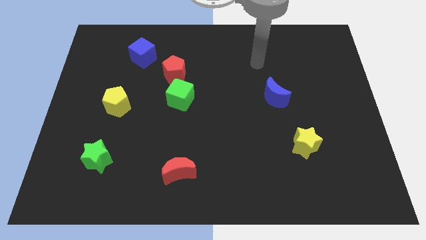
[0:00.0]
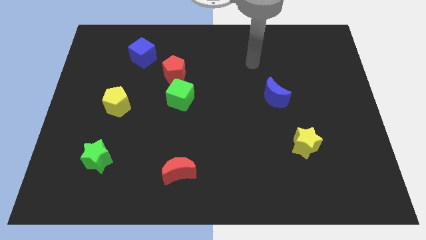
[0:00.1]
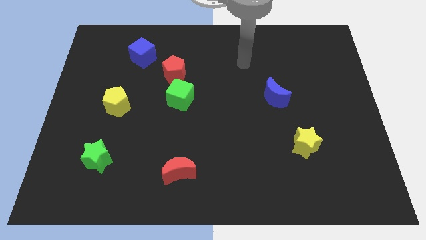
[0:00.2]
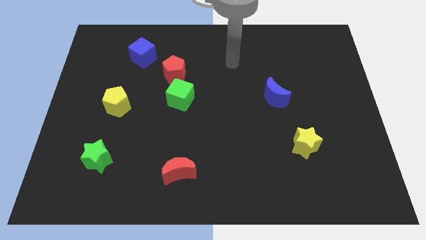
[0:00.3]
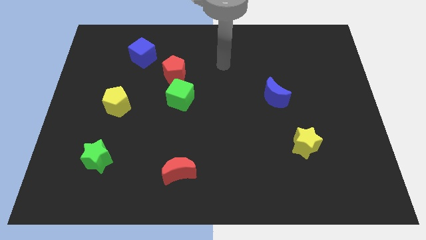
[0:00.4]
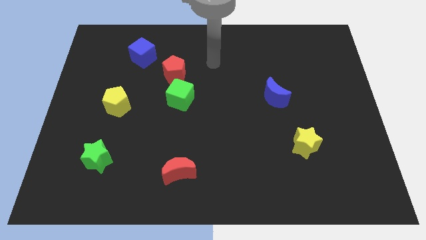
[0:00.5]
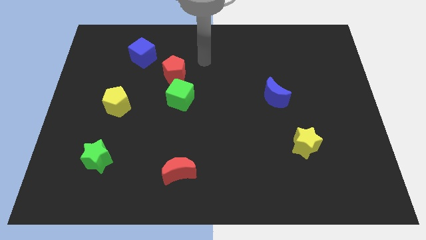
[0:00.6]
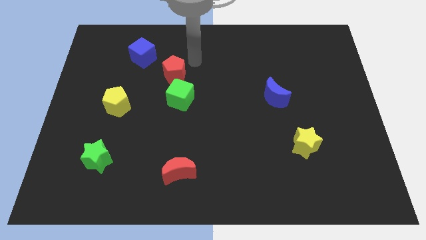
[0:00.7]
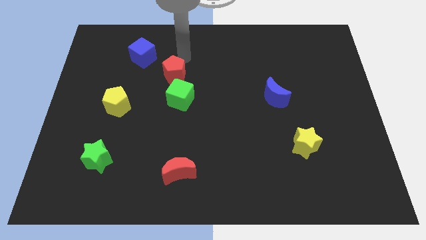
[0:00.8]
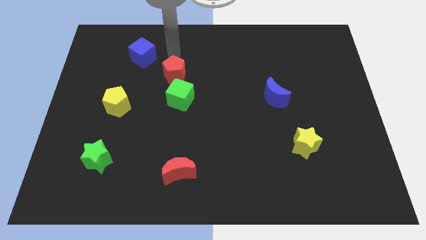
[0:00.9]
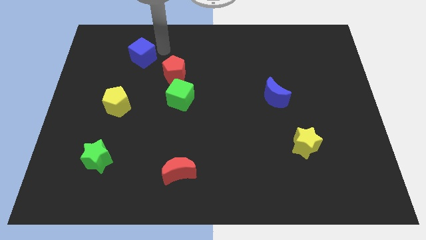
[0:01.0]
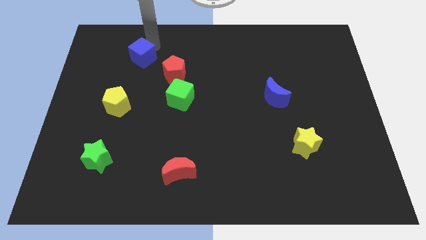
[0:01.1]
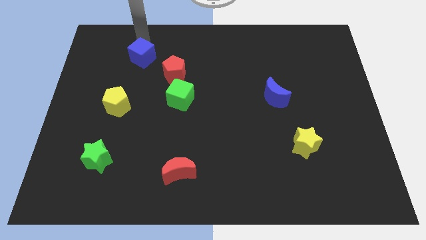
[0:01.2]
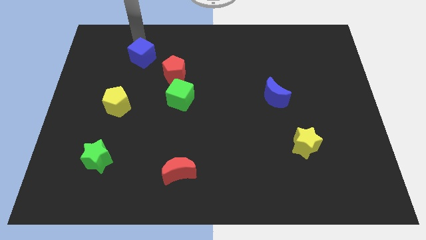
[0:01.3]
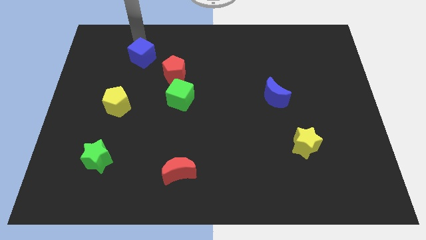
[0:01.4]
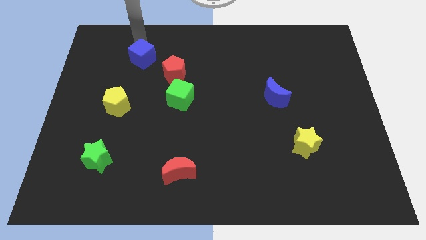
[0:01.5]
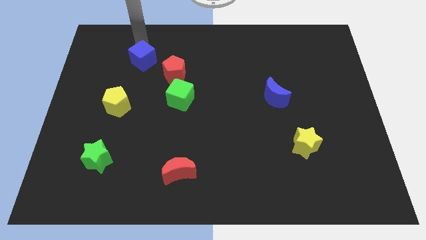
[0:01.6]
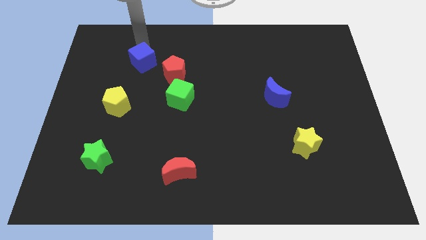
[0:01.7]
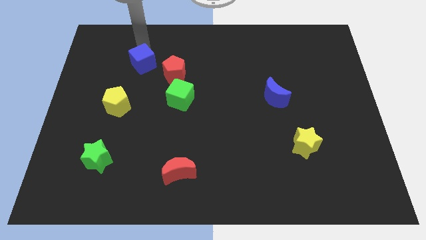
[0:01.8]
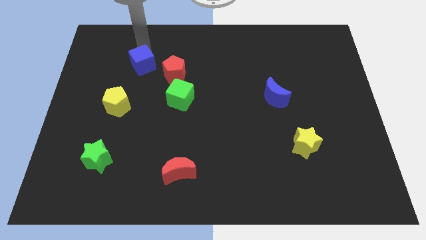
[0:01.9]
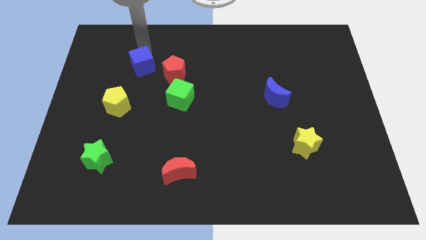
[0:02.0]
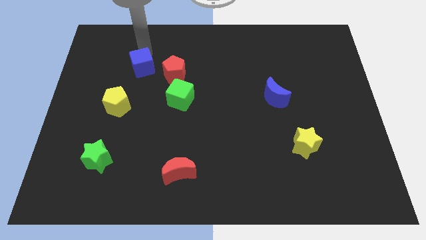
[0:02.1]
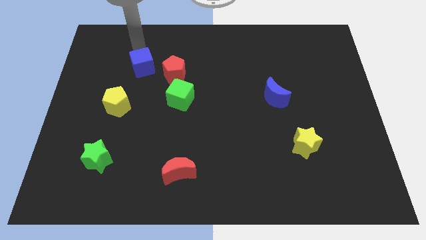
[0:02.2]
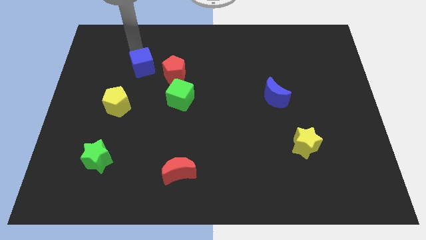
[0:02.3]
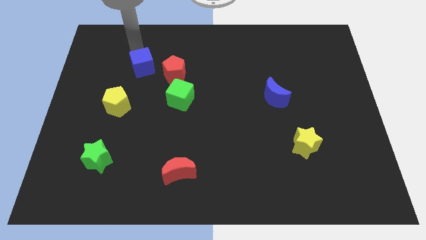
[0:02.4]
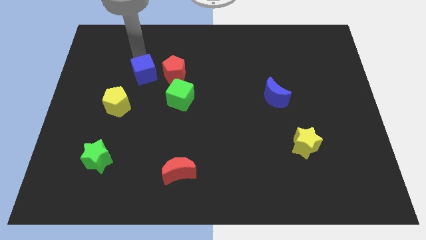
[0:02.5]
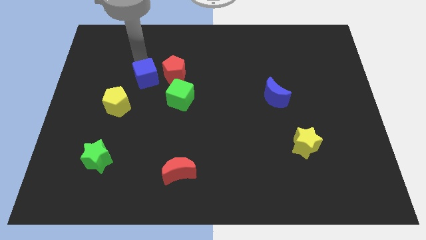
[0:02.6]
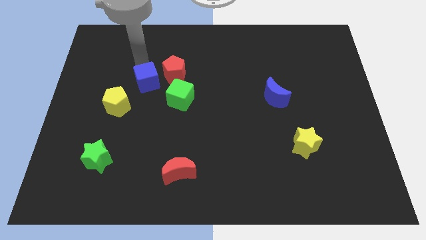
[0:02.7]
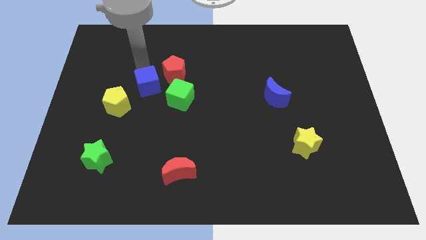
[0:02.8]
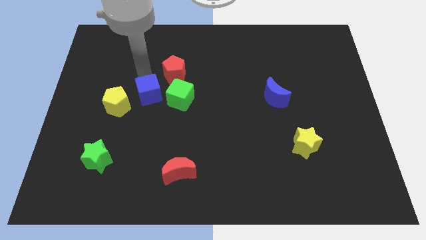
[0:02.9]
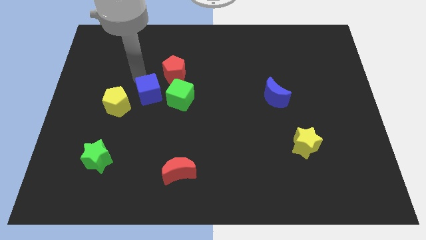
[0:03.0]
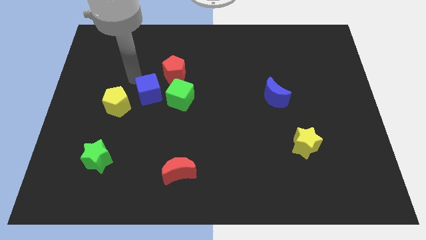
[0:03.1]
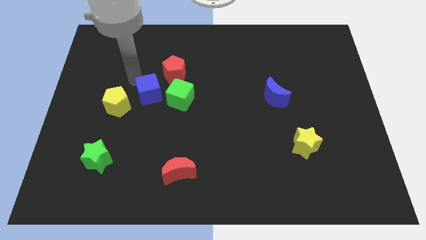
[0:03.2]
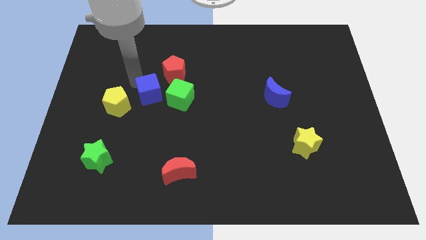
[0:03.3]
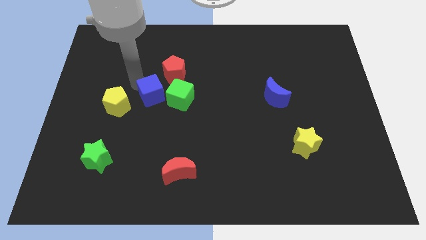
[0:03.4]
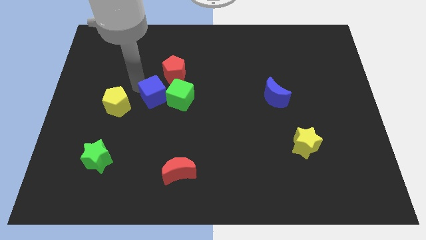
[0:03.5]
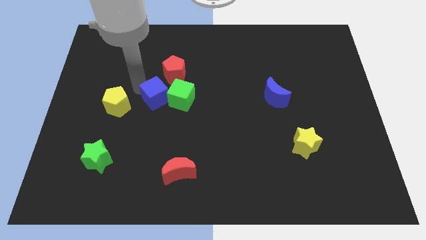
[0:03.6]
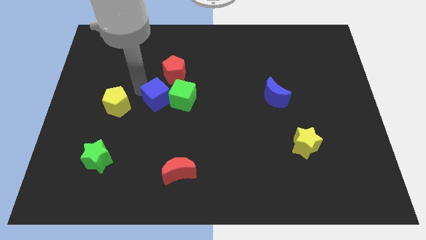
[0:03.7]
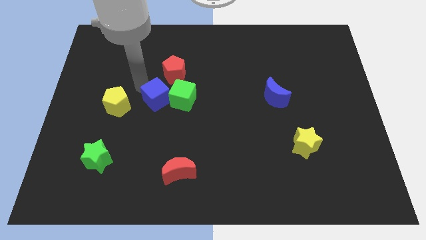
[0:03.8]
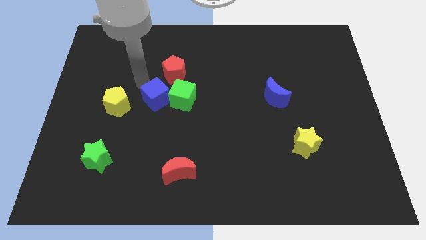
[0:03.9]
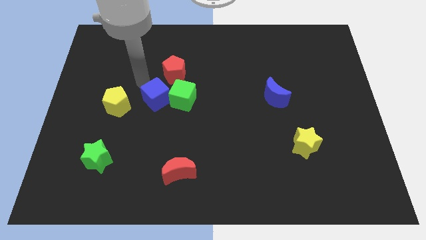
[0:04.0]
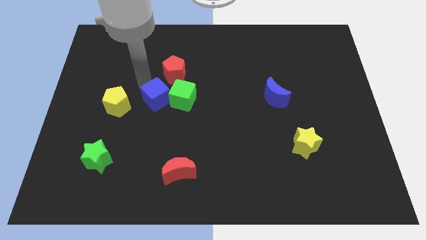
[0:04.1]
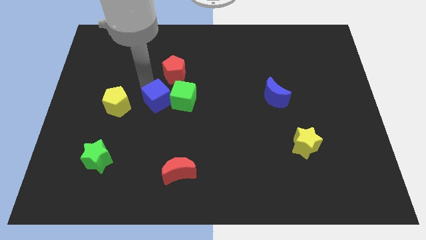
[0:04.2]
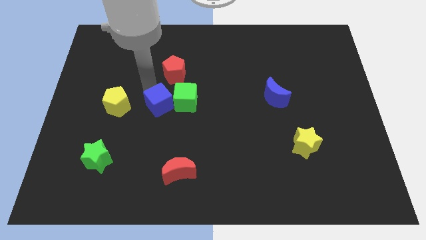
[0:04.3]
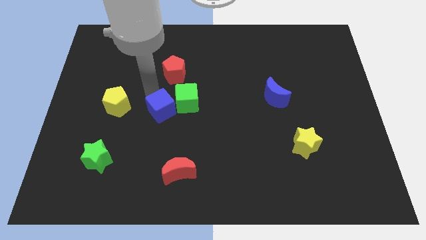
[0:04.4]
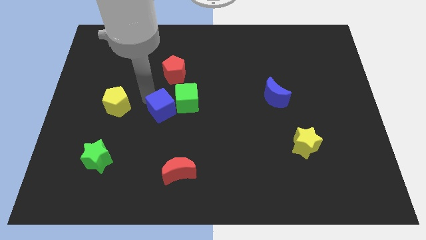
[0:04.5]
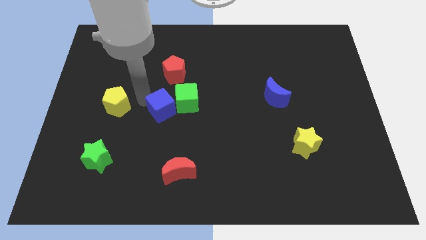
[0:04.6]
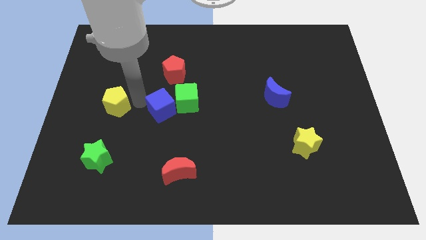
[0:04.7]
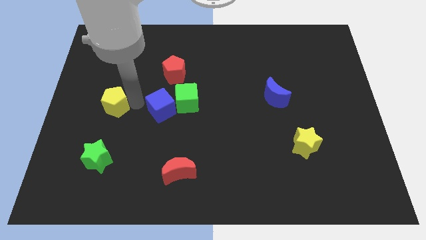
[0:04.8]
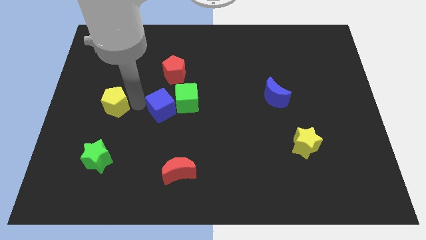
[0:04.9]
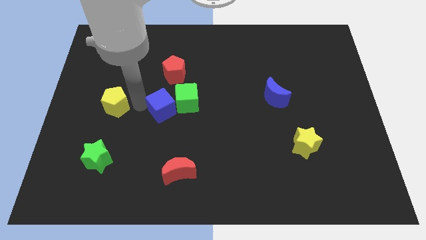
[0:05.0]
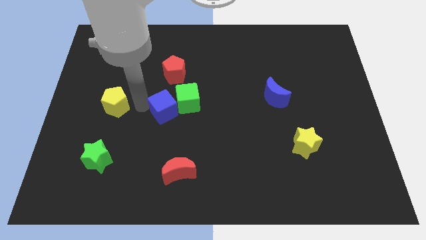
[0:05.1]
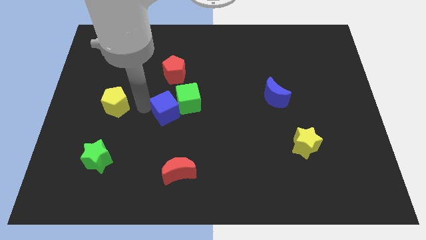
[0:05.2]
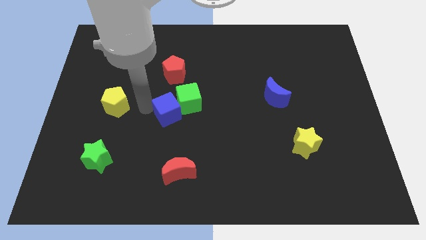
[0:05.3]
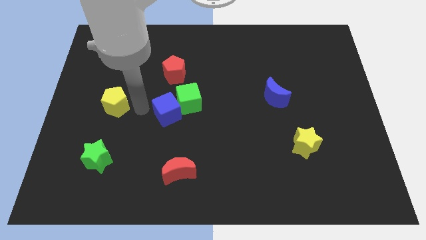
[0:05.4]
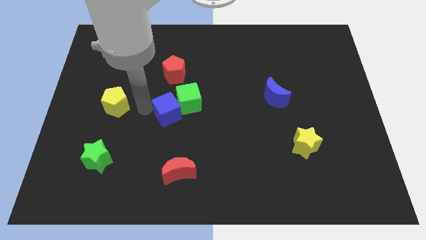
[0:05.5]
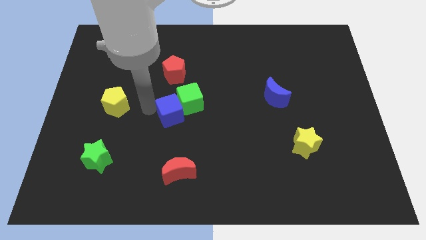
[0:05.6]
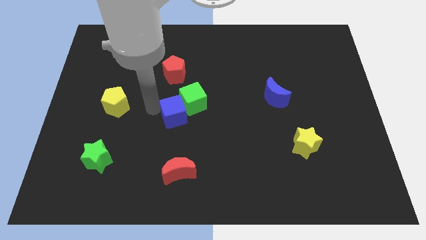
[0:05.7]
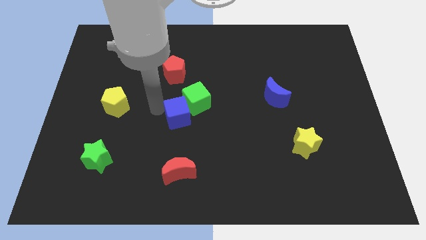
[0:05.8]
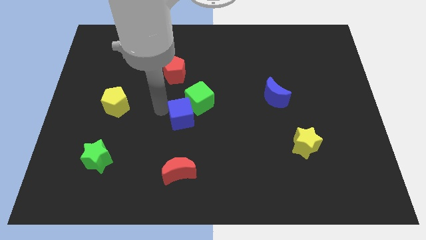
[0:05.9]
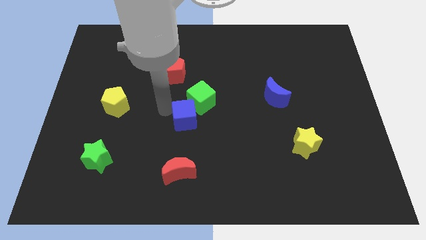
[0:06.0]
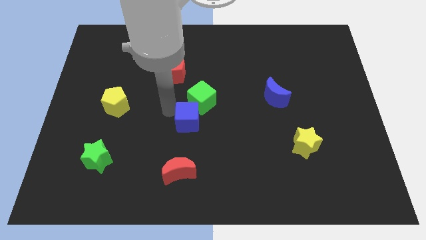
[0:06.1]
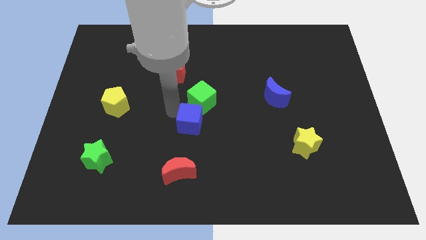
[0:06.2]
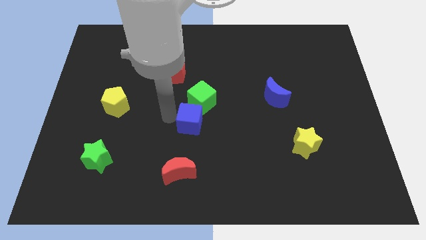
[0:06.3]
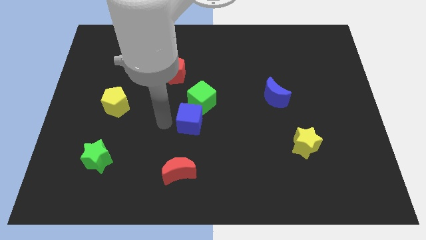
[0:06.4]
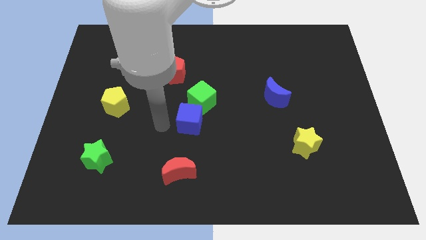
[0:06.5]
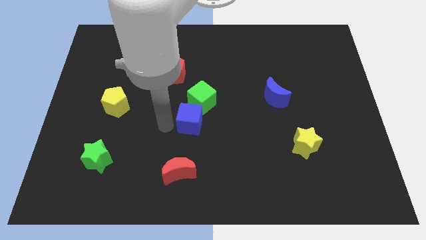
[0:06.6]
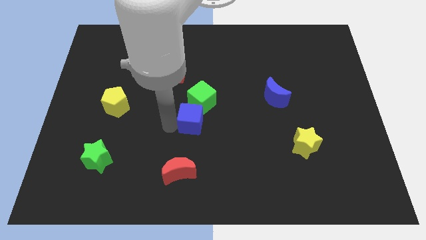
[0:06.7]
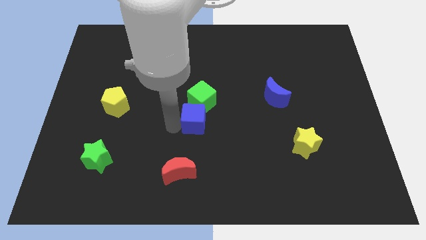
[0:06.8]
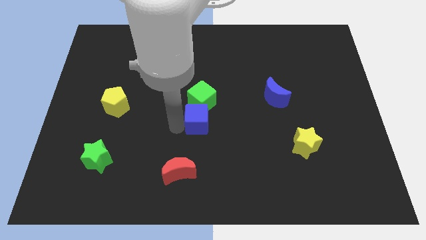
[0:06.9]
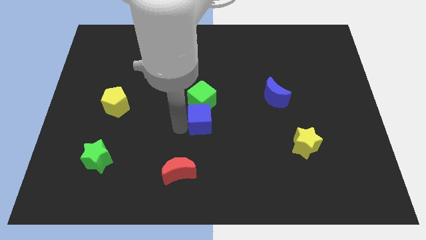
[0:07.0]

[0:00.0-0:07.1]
put the blue cube to the bottom right side of the green cube

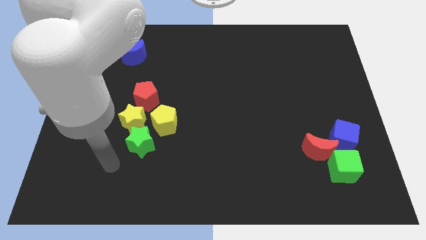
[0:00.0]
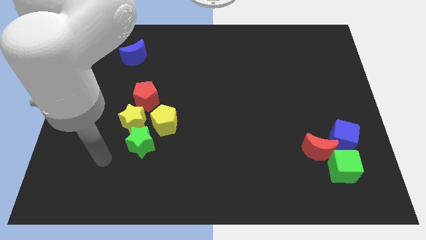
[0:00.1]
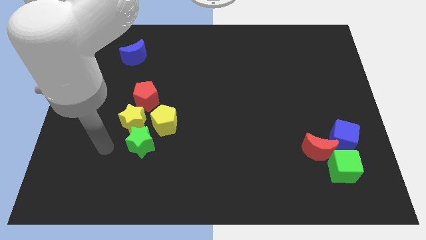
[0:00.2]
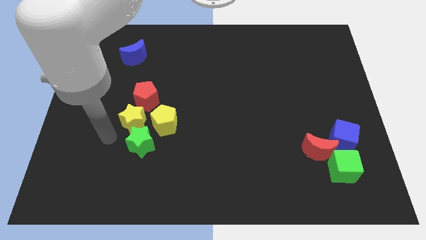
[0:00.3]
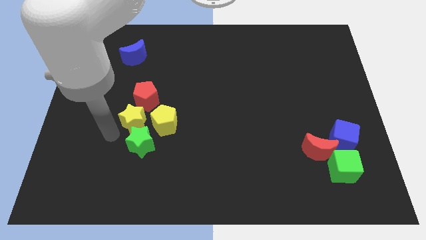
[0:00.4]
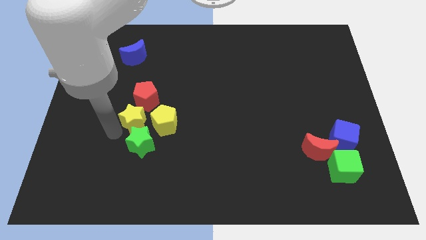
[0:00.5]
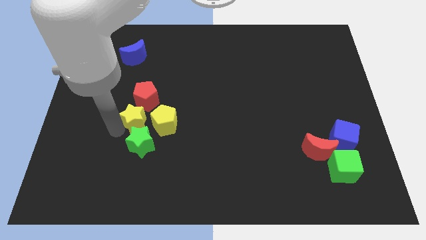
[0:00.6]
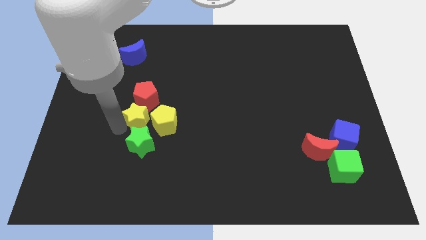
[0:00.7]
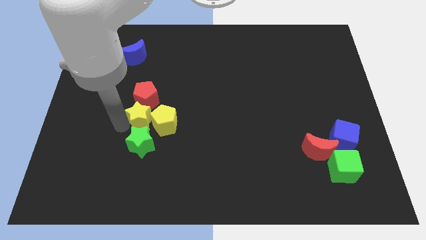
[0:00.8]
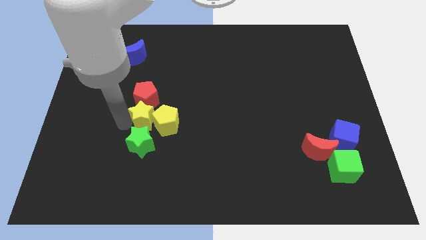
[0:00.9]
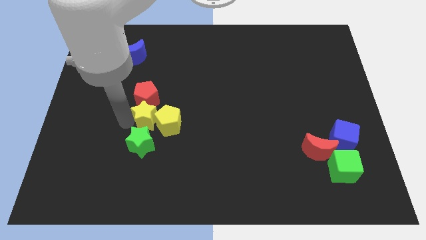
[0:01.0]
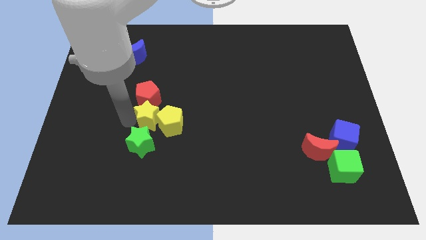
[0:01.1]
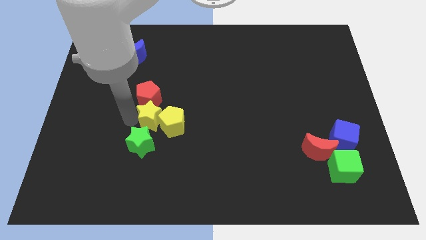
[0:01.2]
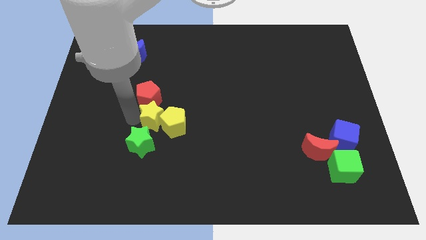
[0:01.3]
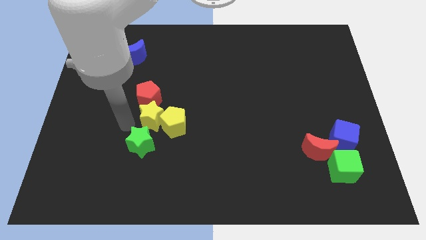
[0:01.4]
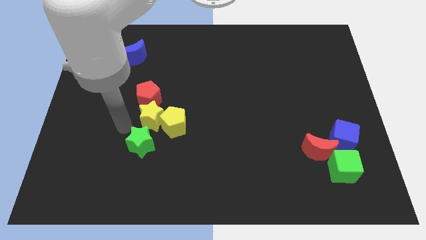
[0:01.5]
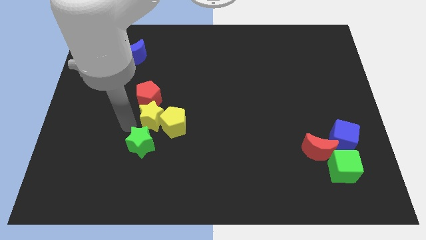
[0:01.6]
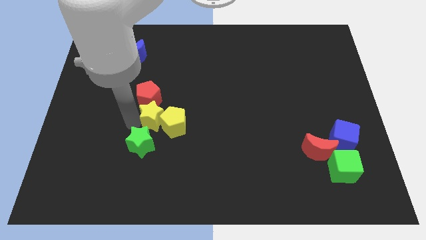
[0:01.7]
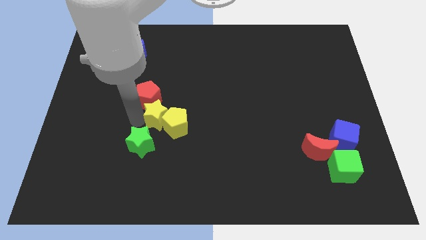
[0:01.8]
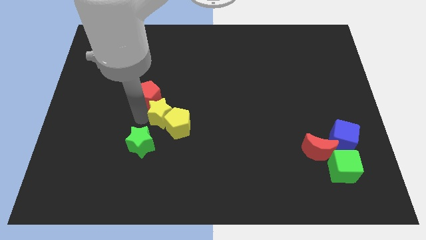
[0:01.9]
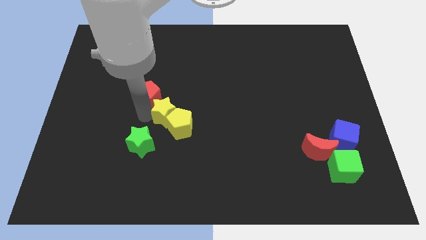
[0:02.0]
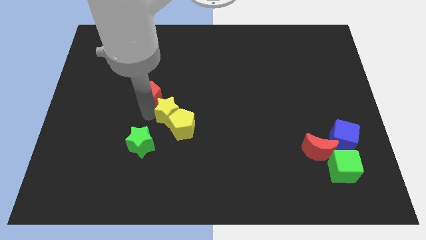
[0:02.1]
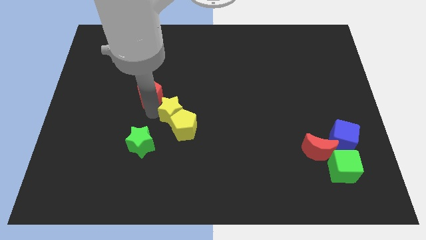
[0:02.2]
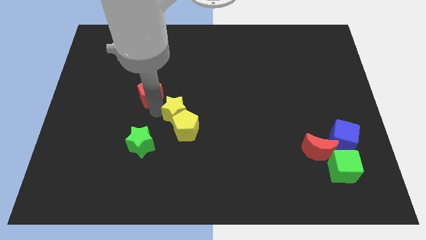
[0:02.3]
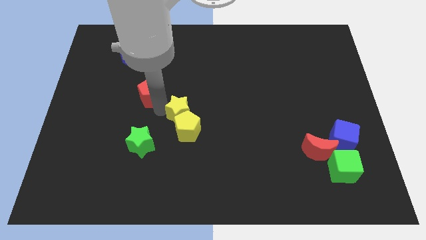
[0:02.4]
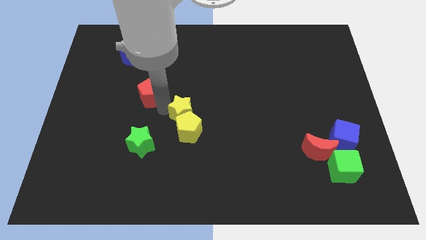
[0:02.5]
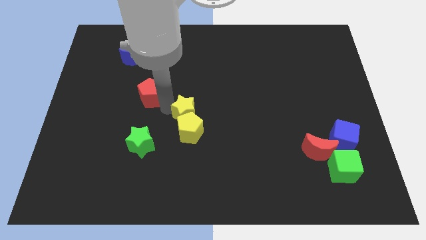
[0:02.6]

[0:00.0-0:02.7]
move the yellow star diagonally up and to the right of the yellow pentagon
